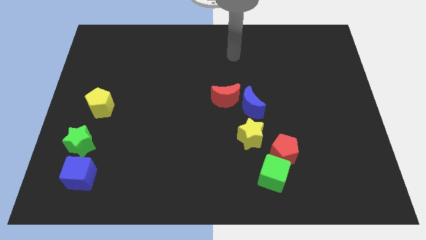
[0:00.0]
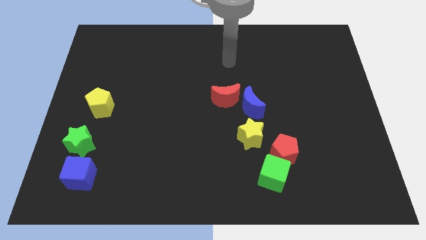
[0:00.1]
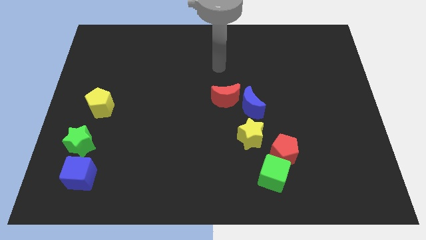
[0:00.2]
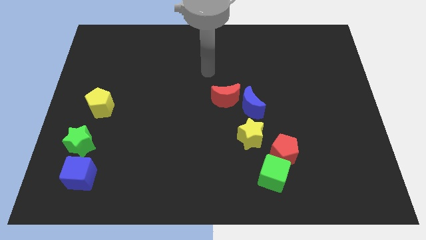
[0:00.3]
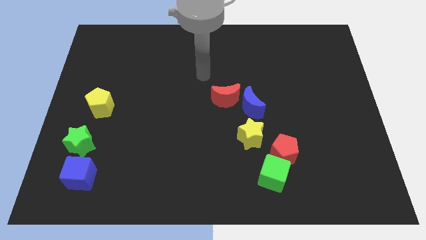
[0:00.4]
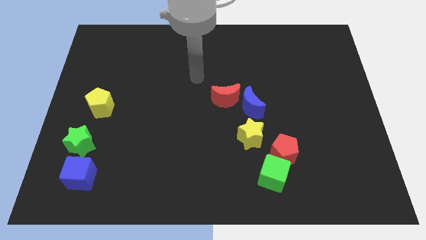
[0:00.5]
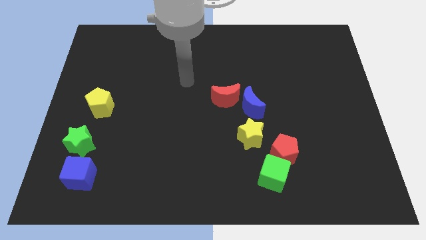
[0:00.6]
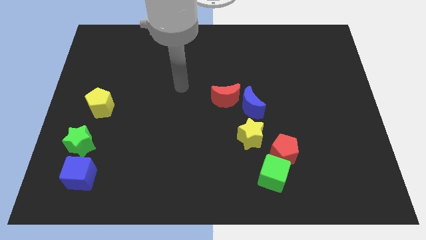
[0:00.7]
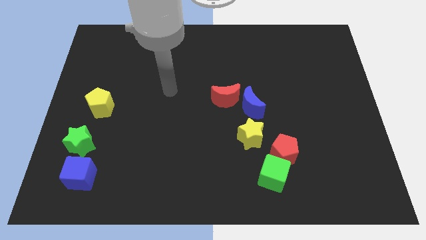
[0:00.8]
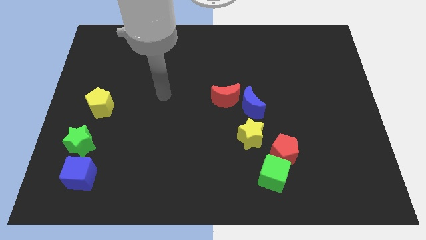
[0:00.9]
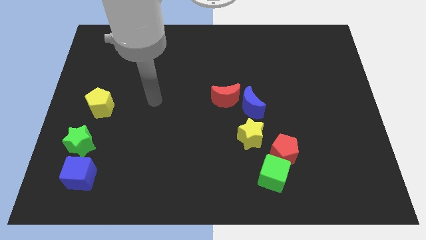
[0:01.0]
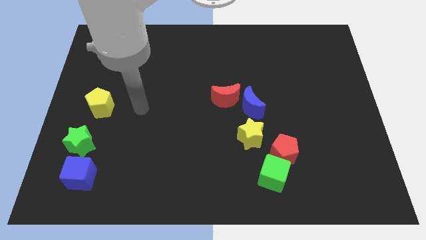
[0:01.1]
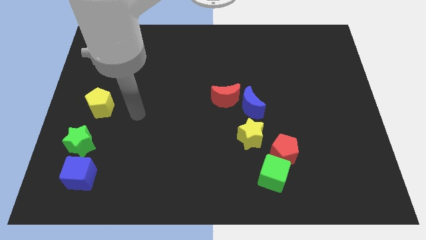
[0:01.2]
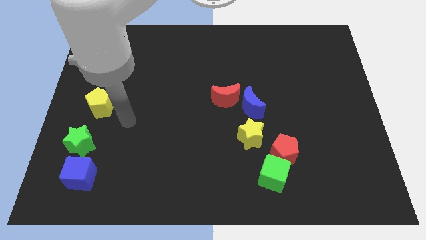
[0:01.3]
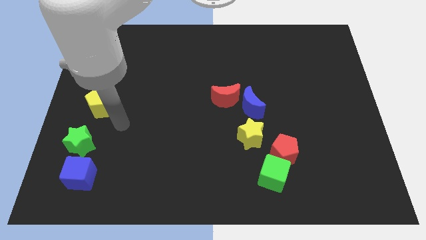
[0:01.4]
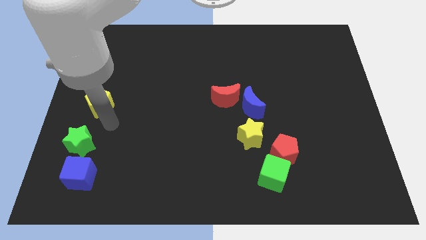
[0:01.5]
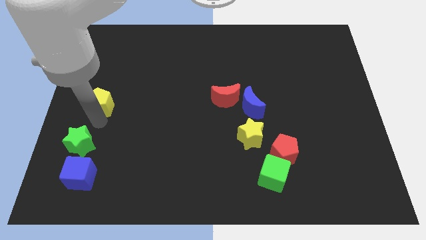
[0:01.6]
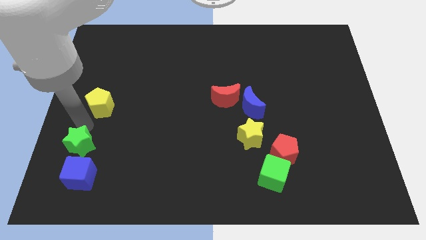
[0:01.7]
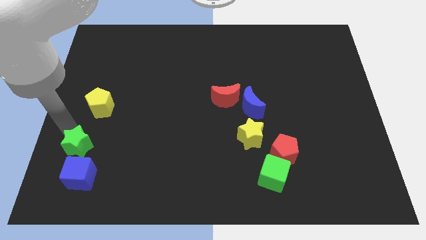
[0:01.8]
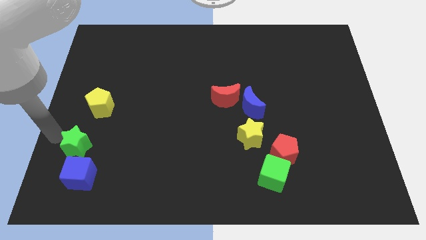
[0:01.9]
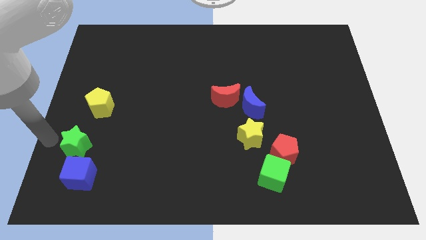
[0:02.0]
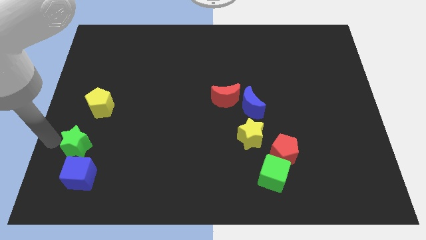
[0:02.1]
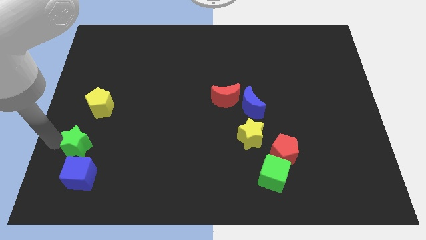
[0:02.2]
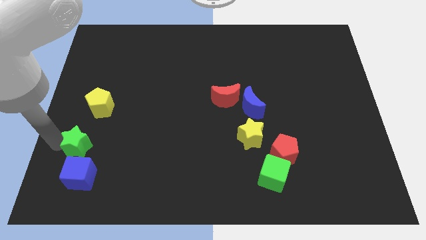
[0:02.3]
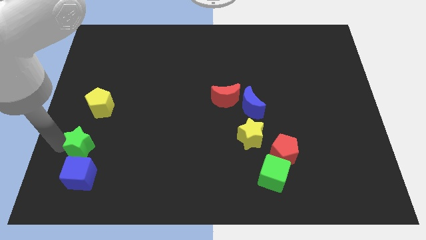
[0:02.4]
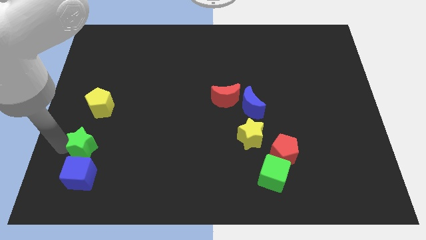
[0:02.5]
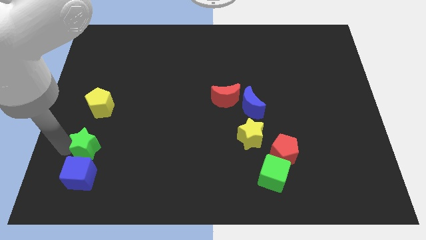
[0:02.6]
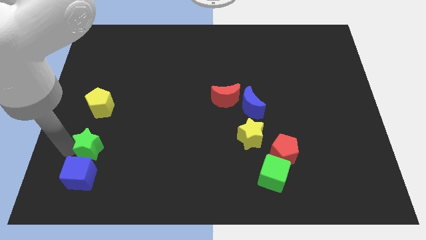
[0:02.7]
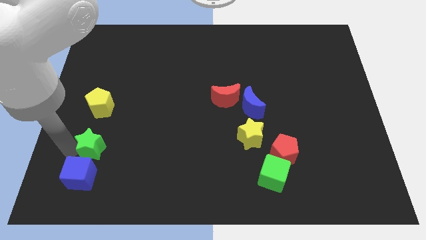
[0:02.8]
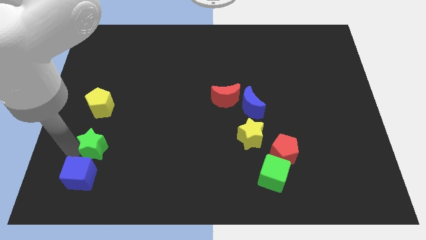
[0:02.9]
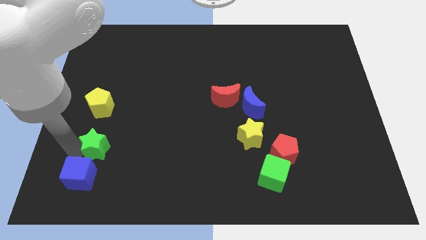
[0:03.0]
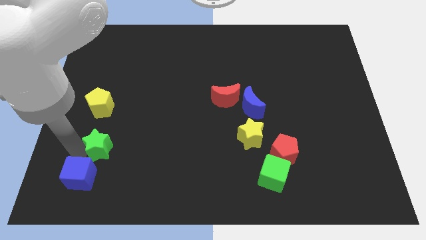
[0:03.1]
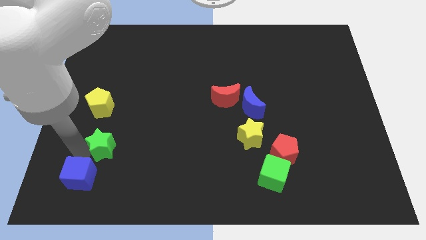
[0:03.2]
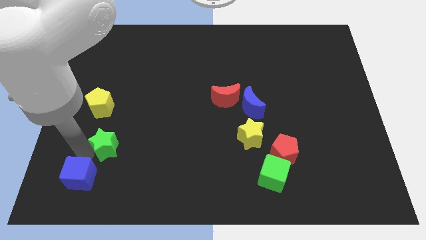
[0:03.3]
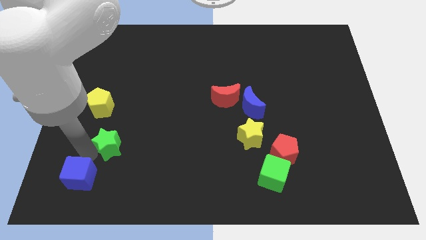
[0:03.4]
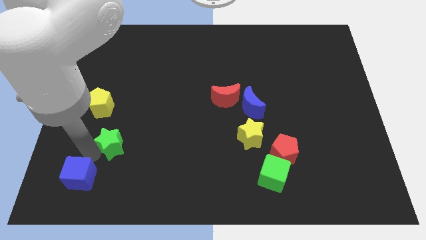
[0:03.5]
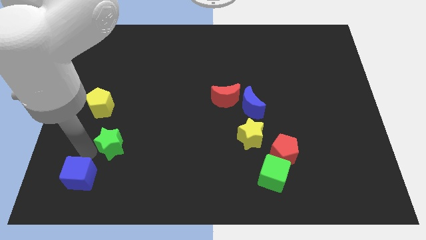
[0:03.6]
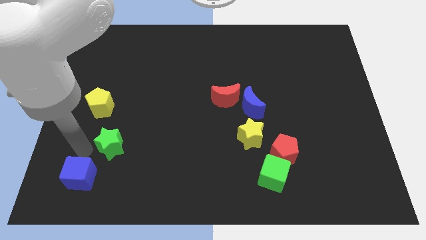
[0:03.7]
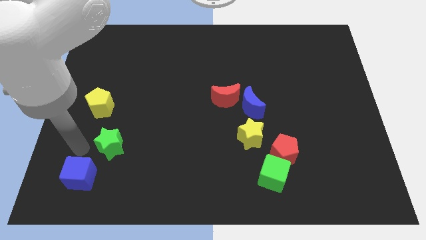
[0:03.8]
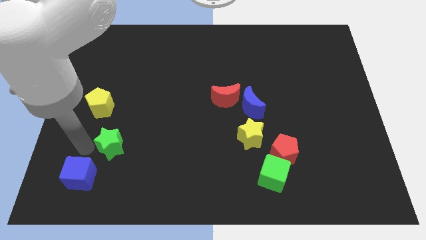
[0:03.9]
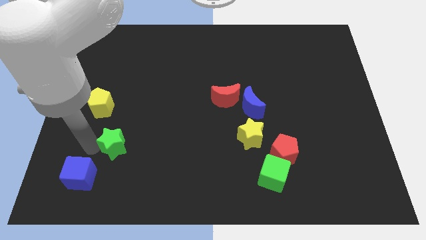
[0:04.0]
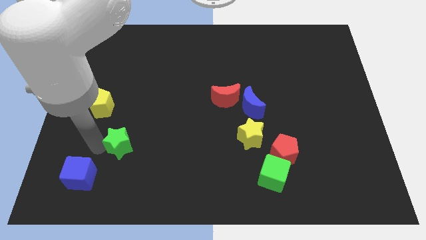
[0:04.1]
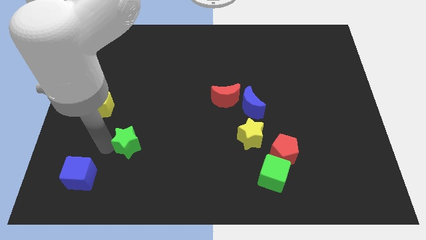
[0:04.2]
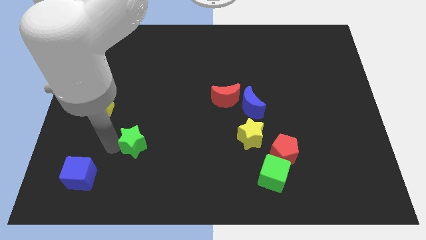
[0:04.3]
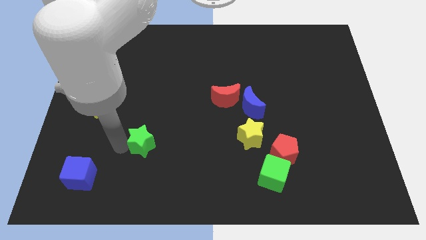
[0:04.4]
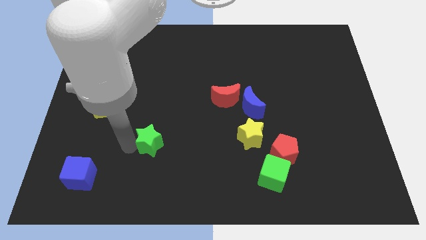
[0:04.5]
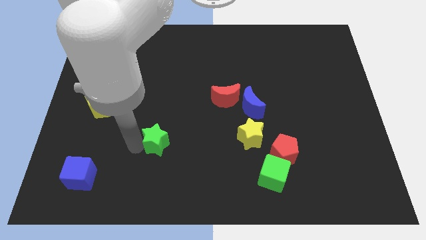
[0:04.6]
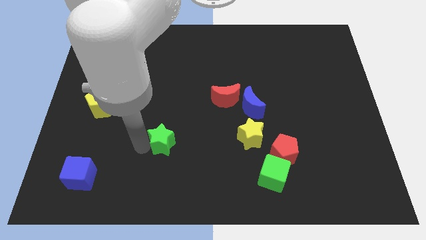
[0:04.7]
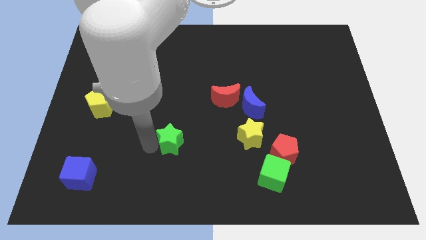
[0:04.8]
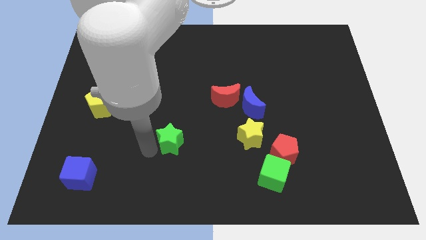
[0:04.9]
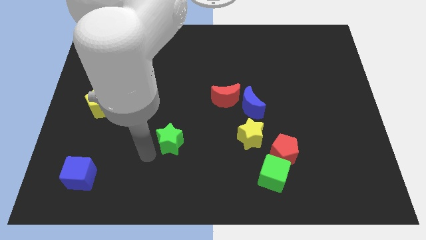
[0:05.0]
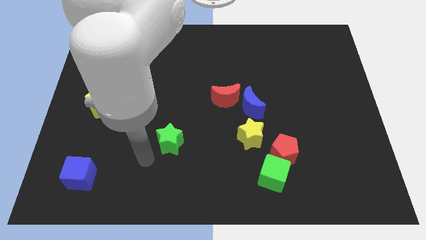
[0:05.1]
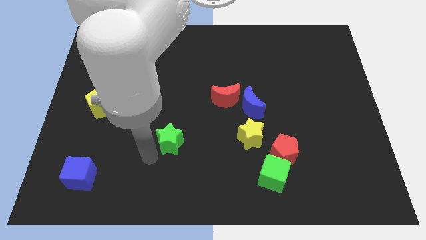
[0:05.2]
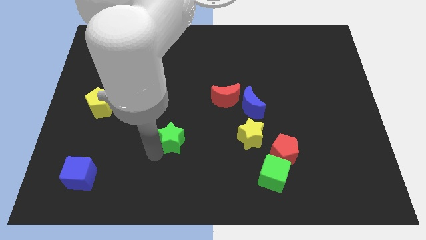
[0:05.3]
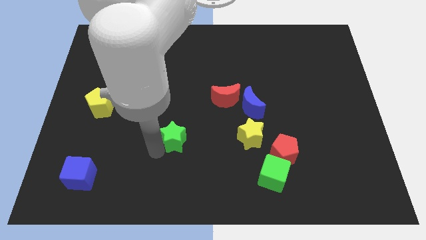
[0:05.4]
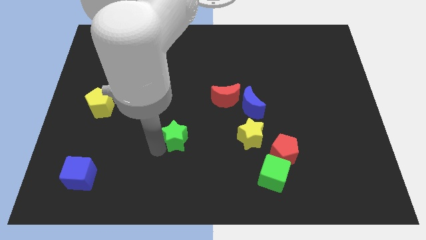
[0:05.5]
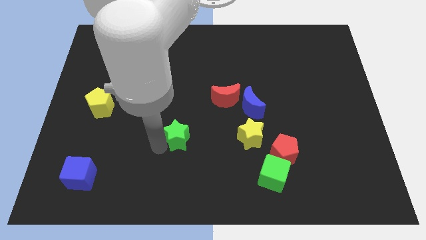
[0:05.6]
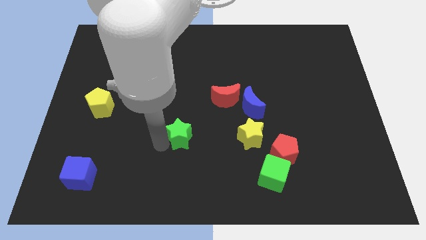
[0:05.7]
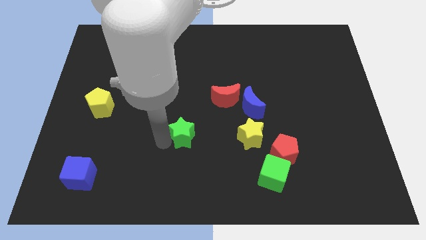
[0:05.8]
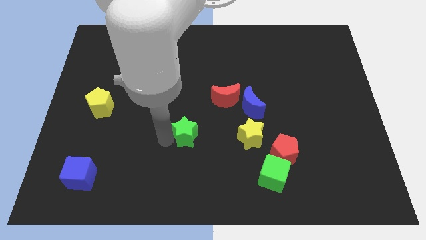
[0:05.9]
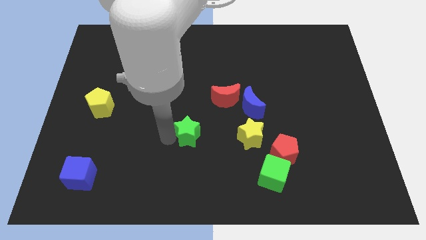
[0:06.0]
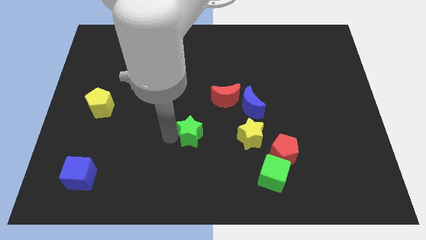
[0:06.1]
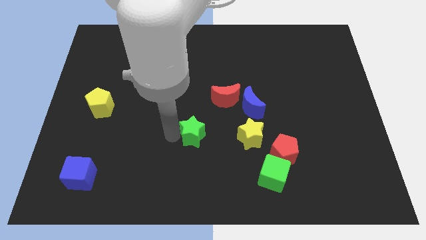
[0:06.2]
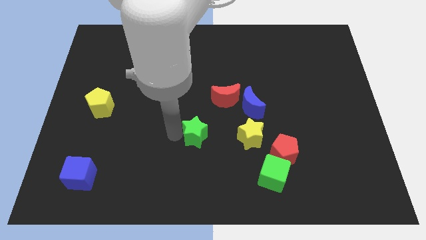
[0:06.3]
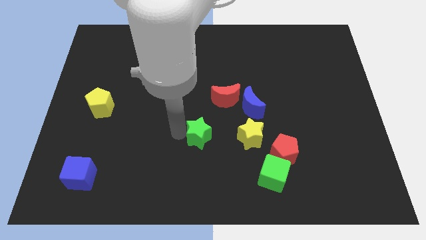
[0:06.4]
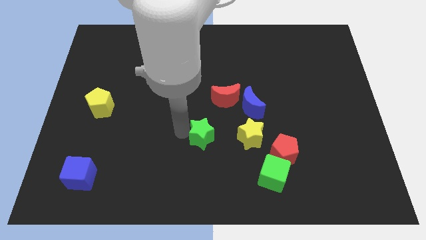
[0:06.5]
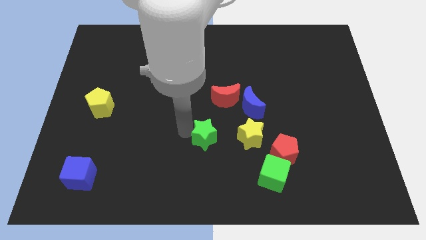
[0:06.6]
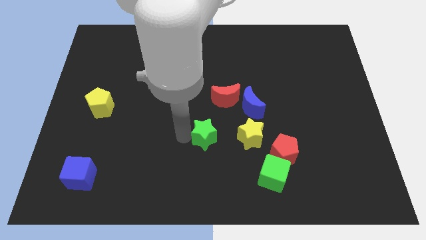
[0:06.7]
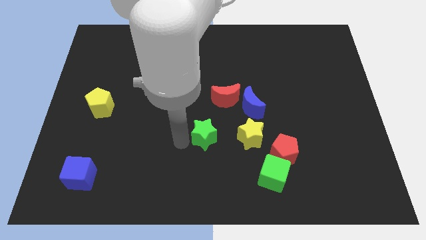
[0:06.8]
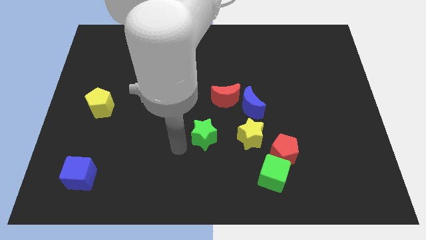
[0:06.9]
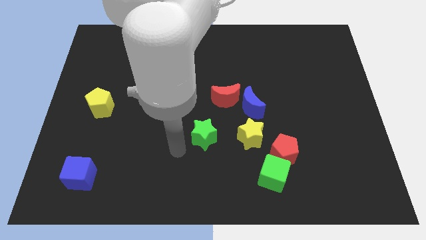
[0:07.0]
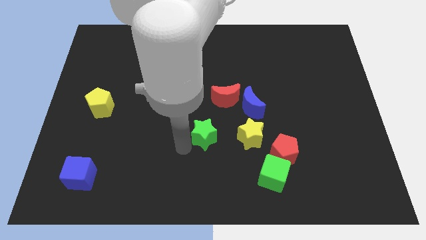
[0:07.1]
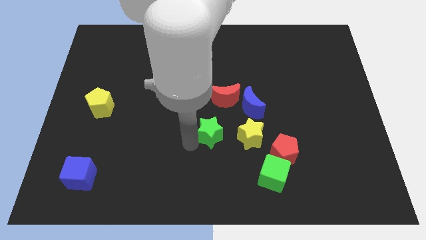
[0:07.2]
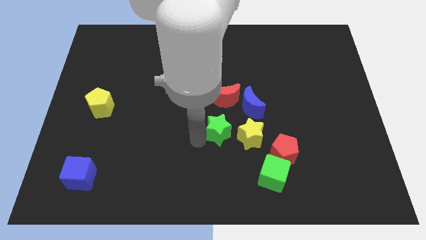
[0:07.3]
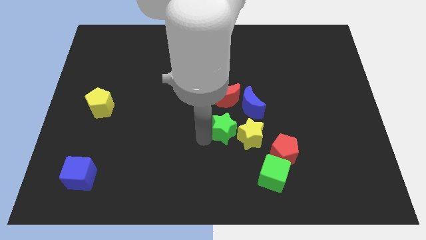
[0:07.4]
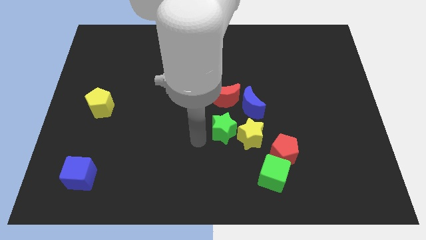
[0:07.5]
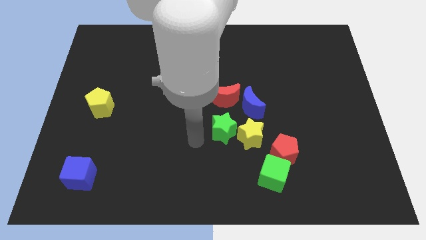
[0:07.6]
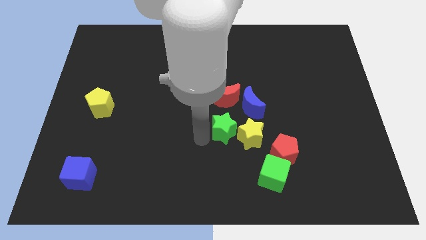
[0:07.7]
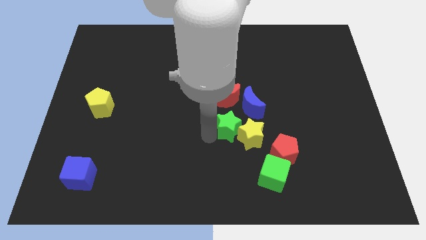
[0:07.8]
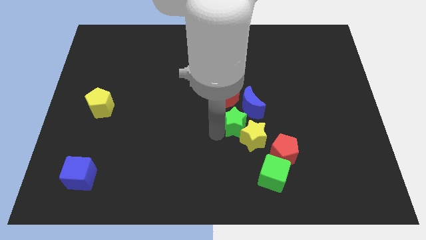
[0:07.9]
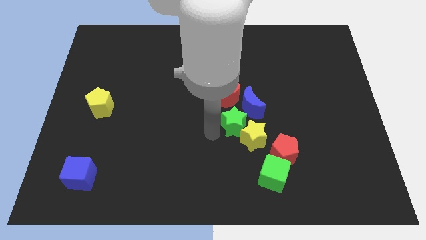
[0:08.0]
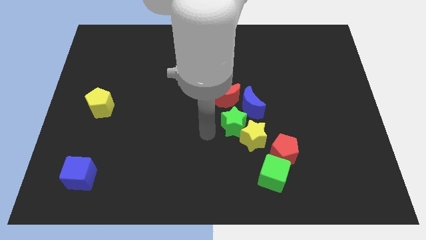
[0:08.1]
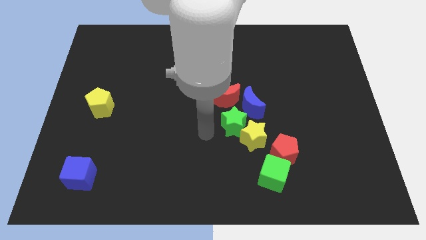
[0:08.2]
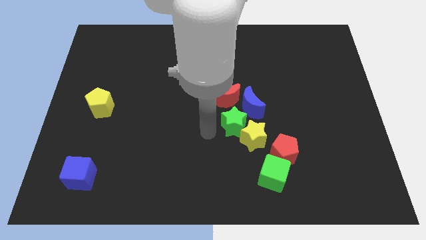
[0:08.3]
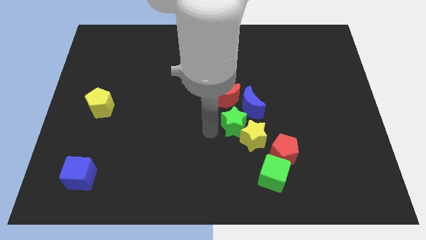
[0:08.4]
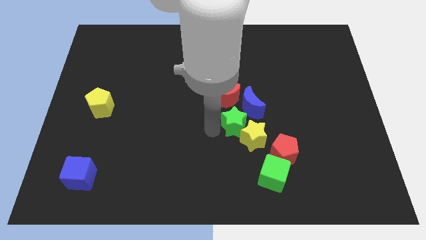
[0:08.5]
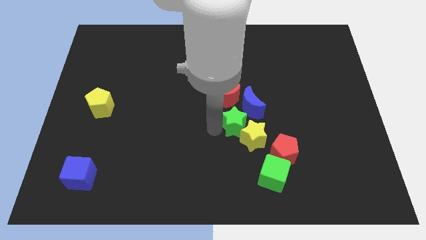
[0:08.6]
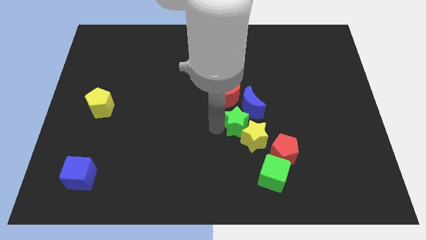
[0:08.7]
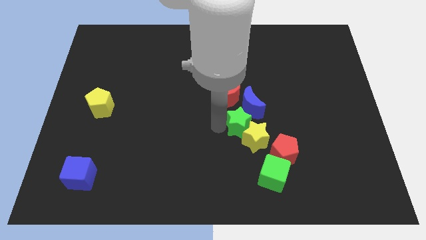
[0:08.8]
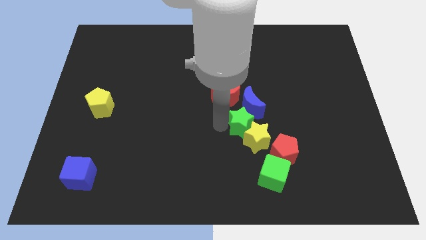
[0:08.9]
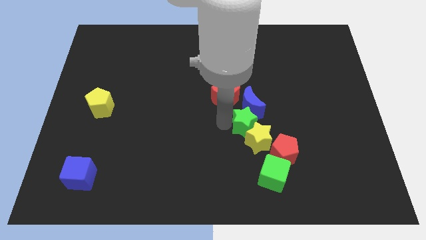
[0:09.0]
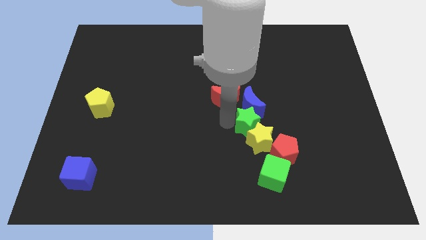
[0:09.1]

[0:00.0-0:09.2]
slide the green star to the bottom right of the blue moon
